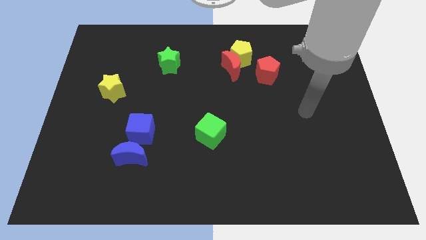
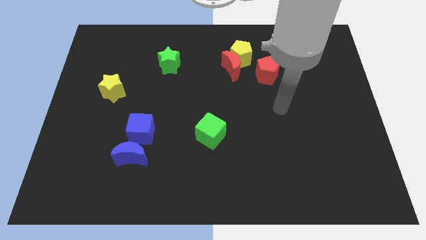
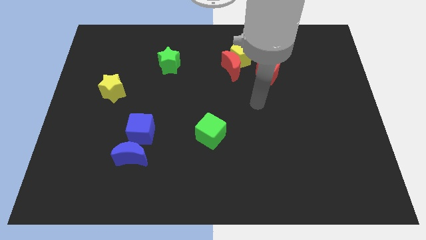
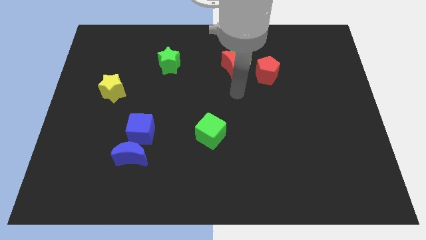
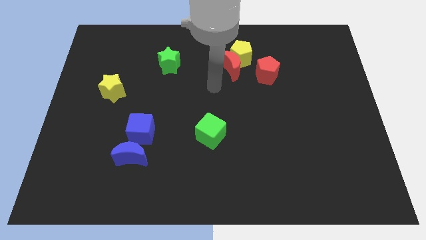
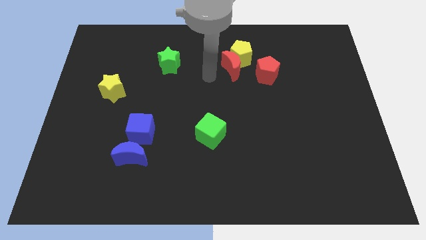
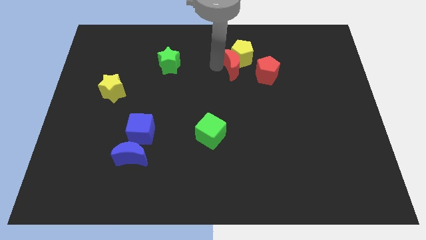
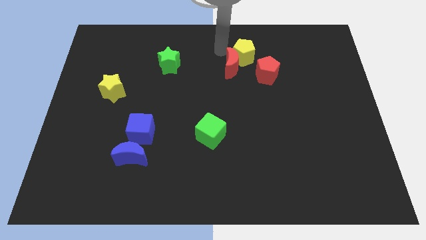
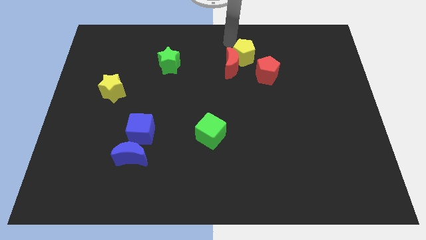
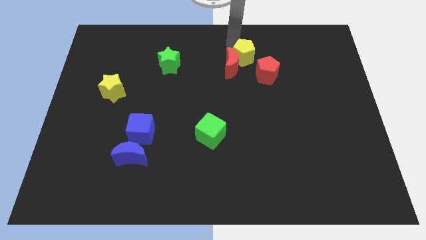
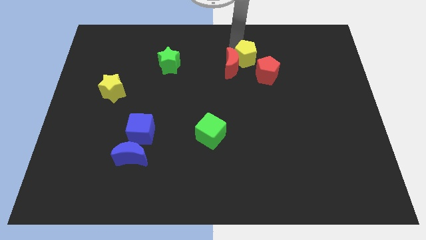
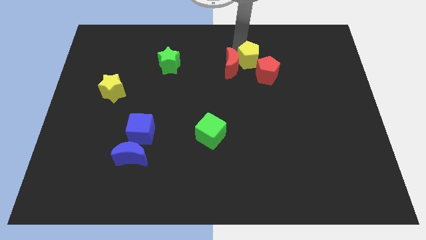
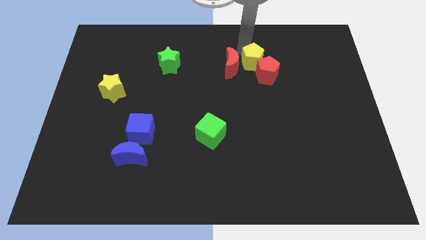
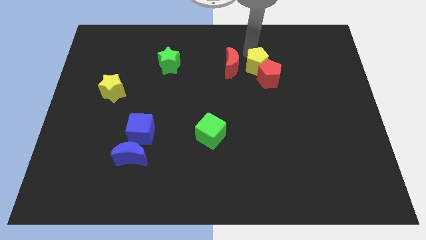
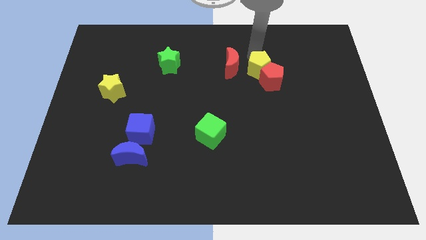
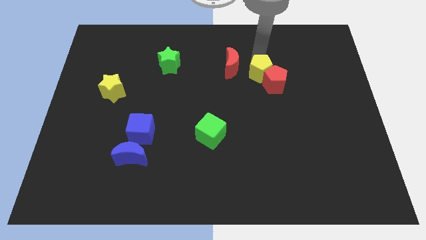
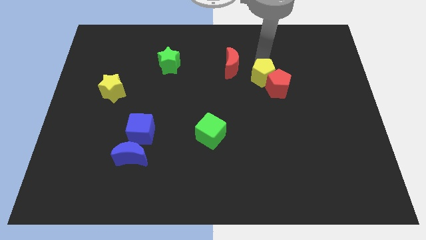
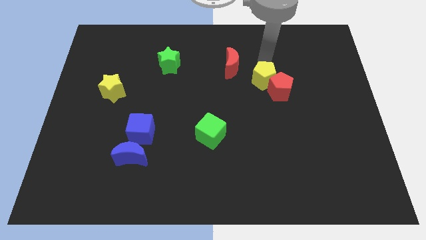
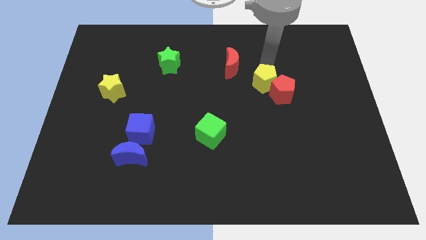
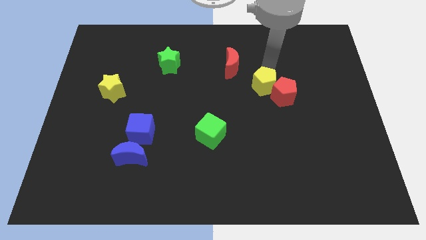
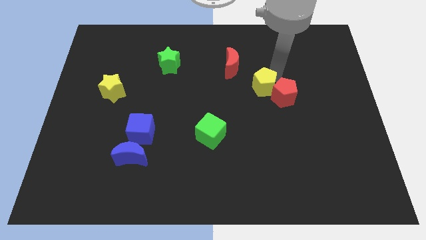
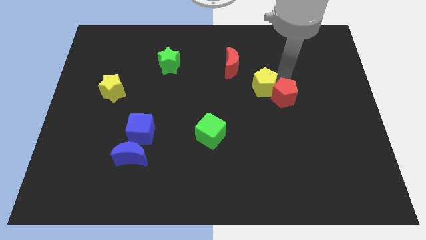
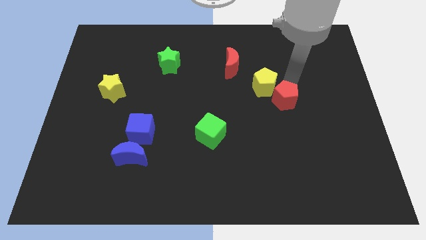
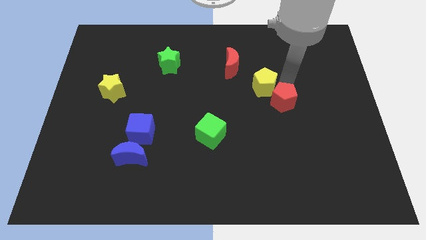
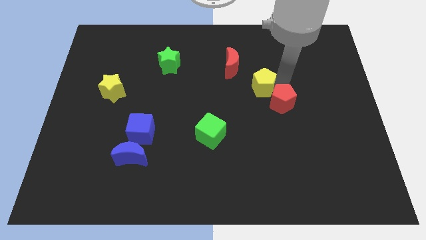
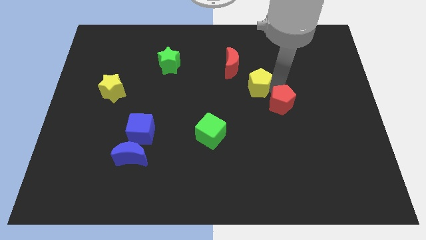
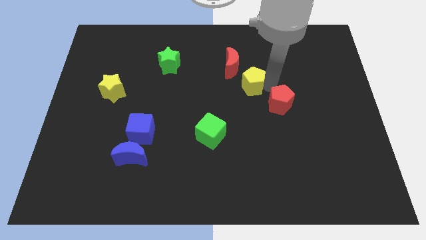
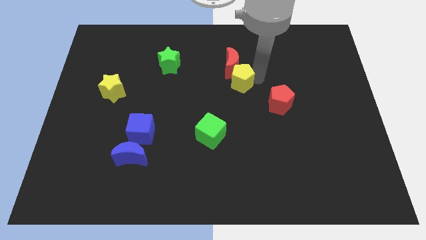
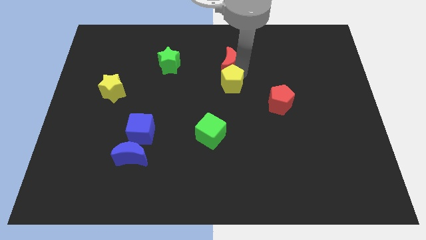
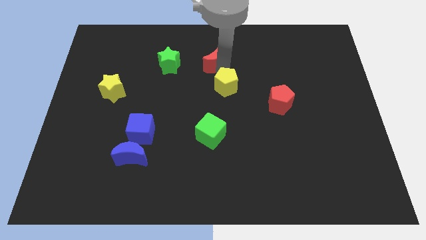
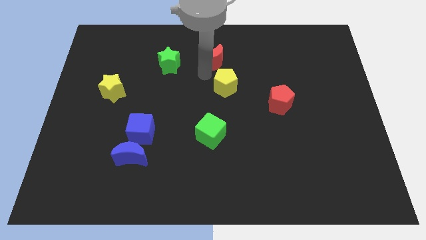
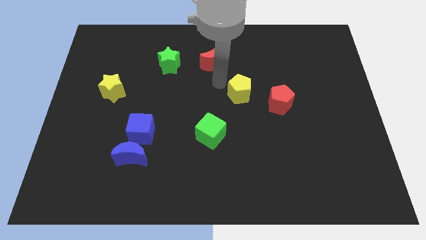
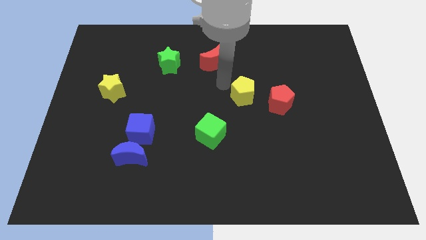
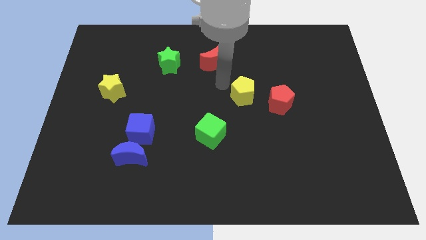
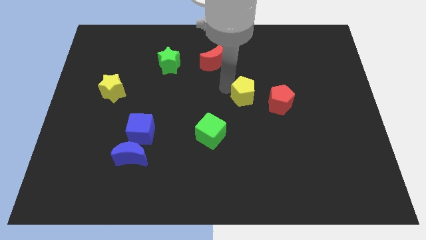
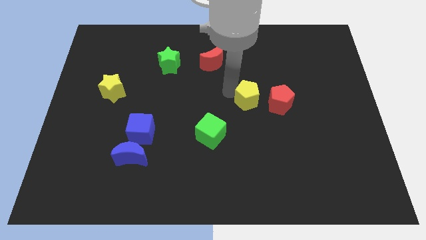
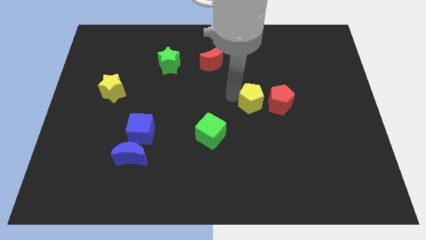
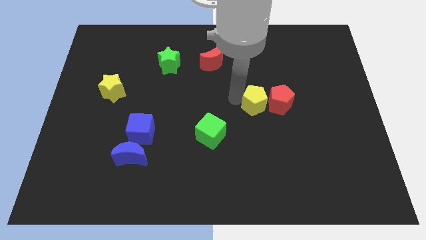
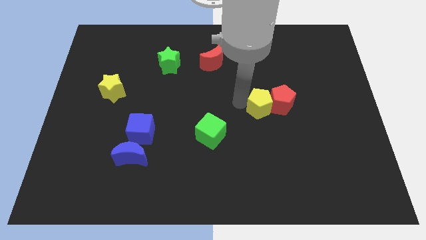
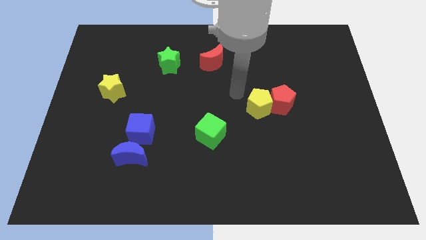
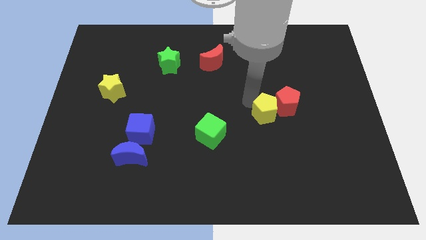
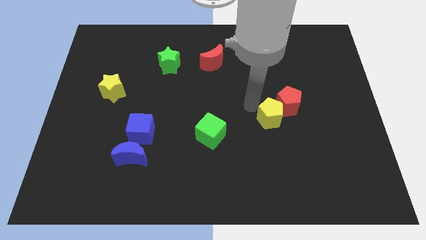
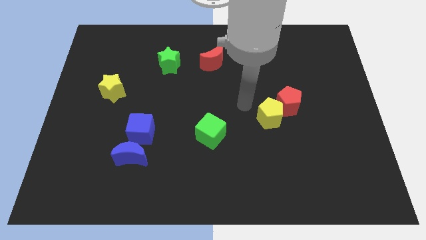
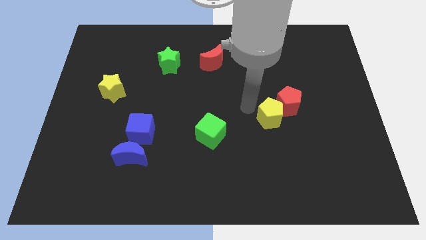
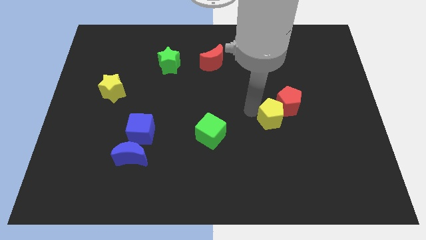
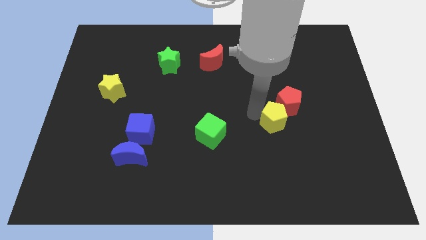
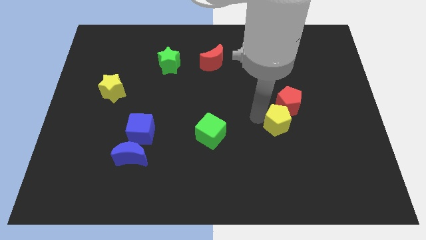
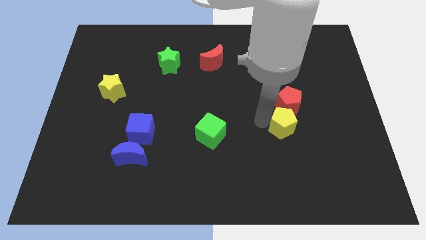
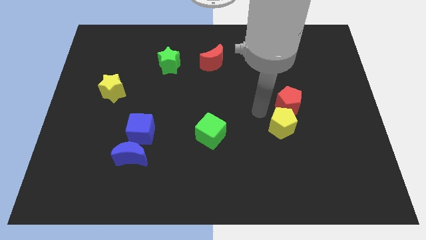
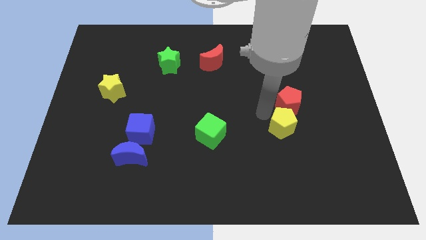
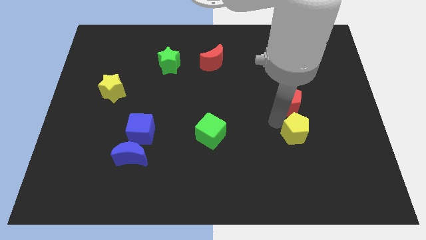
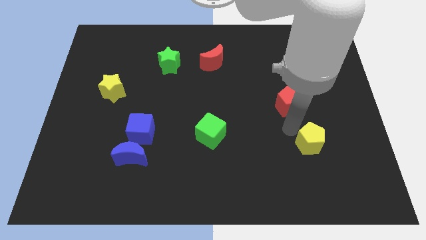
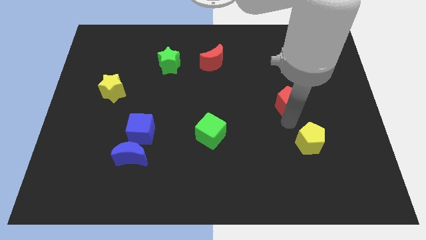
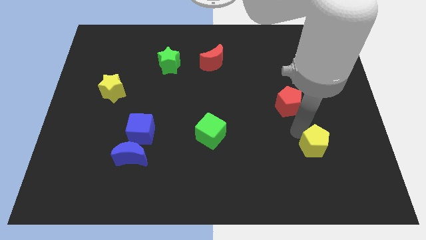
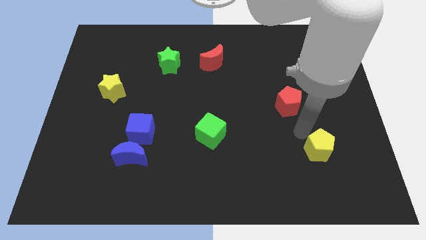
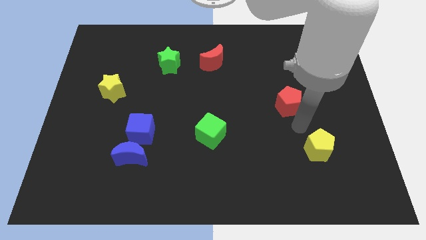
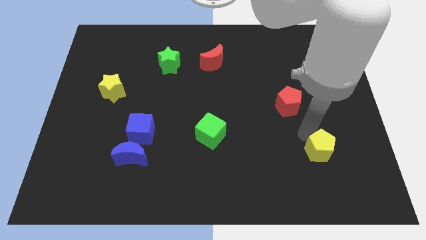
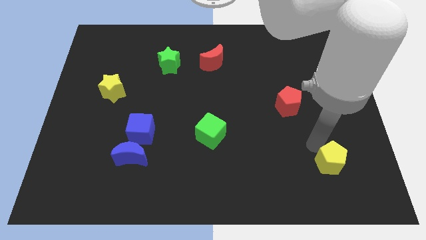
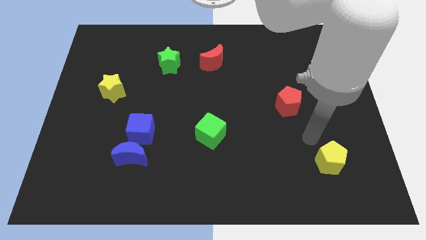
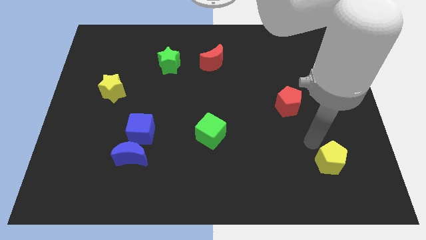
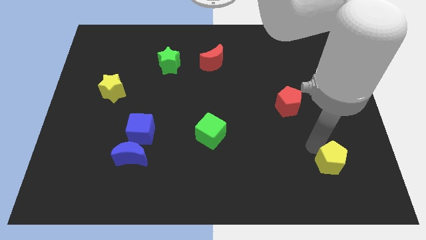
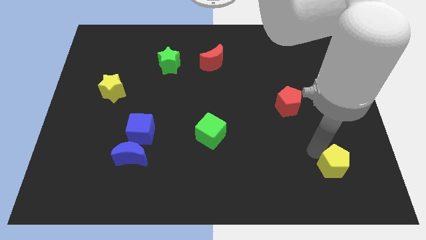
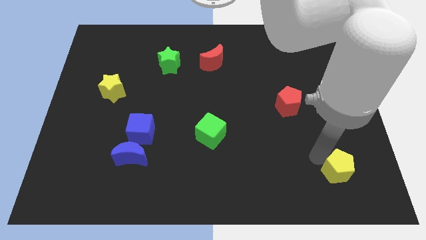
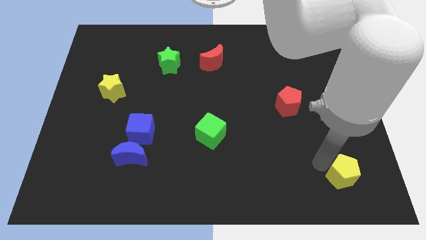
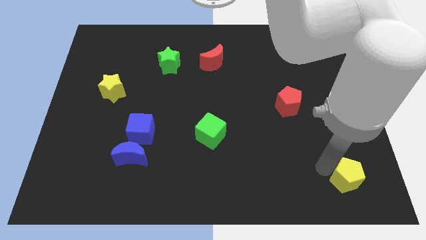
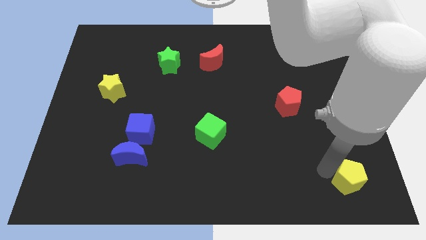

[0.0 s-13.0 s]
move the yellow pentagon to the bottom right of the board

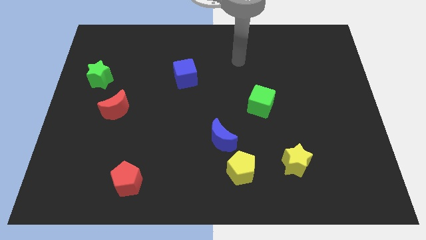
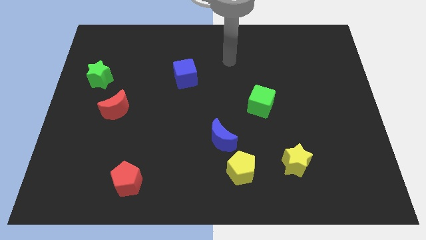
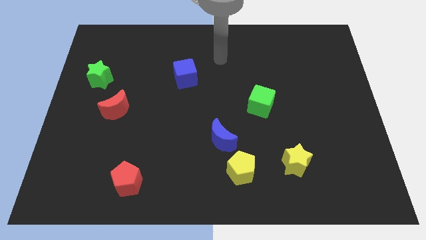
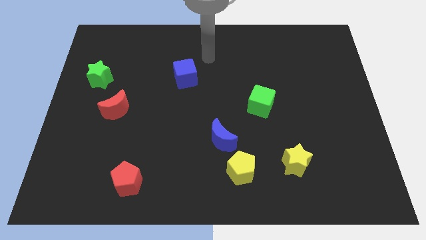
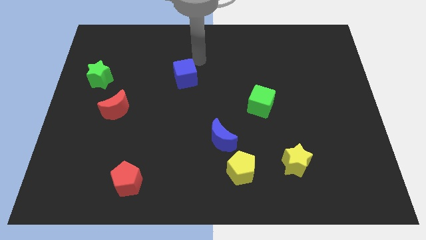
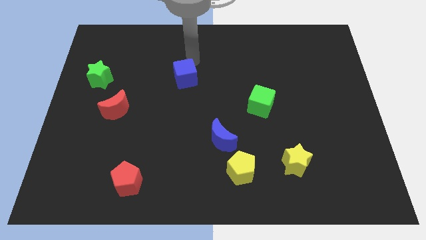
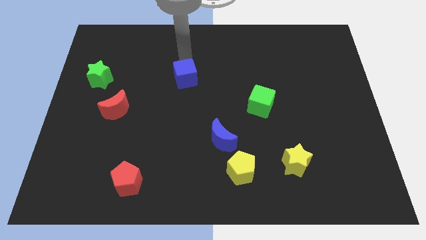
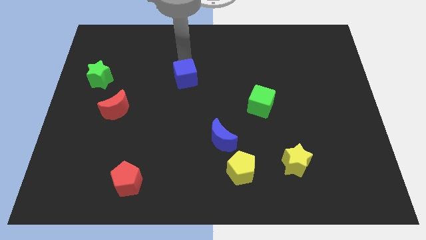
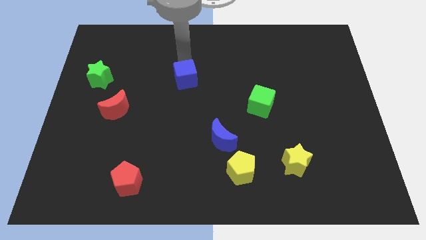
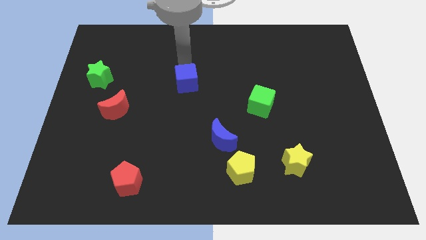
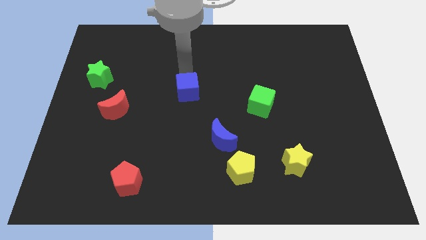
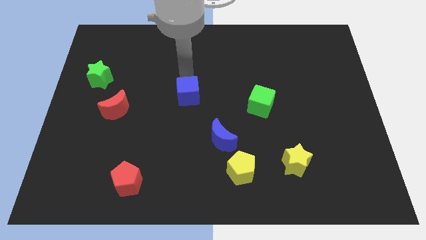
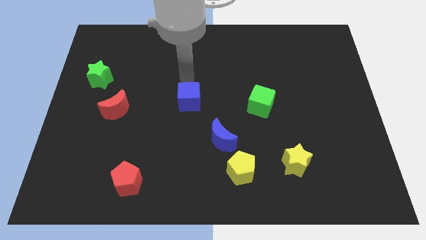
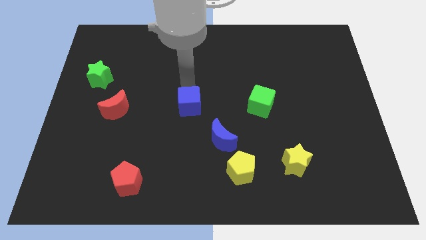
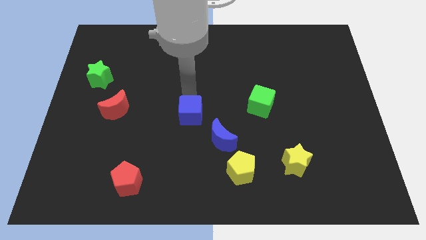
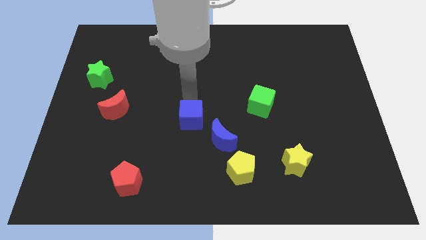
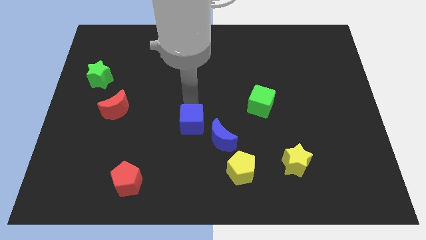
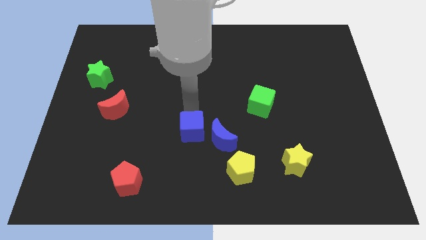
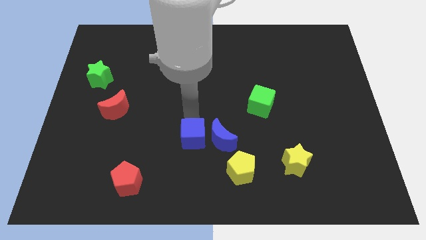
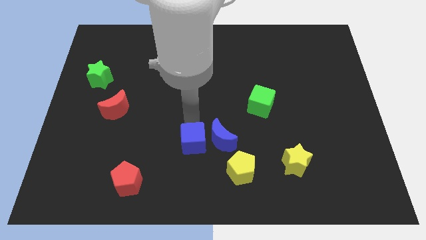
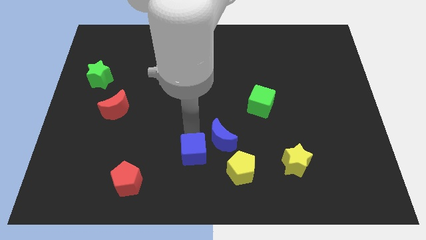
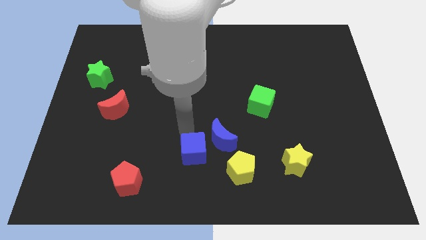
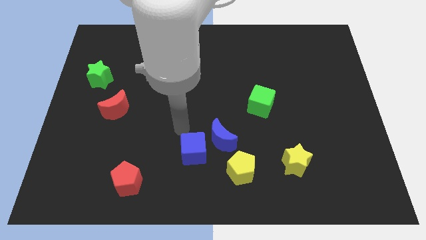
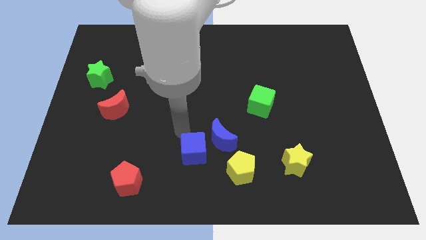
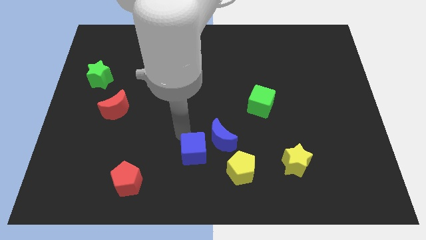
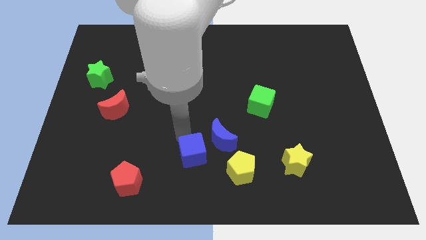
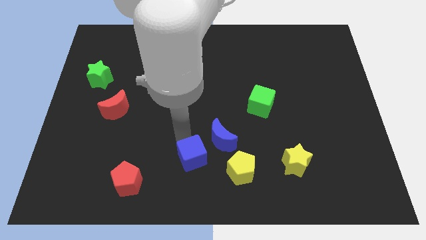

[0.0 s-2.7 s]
slide the blue cube to the bottom
